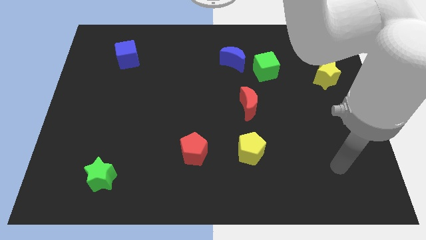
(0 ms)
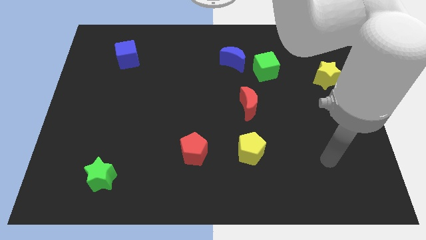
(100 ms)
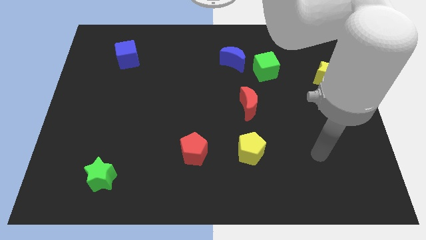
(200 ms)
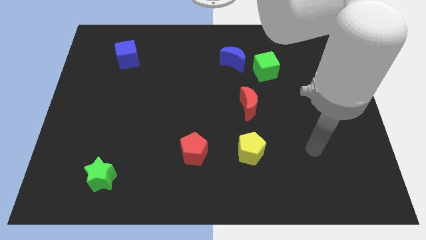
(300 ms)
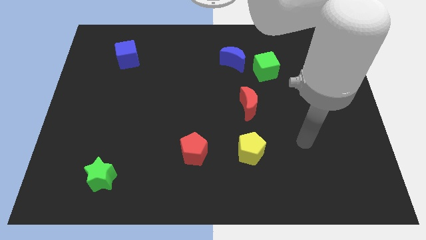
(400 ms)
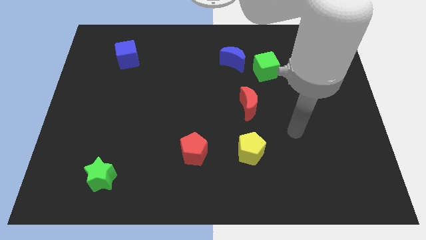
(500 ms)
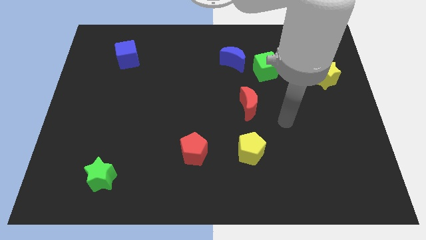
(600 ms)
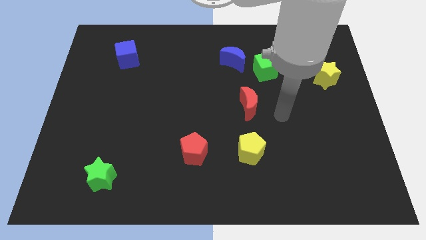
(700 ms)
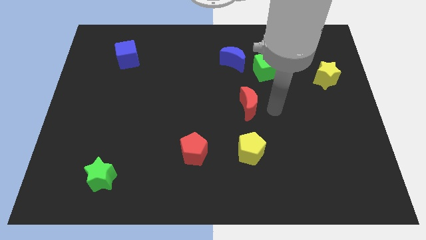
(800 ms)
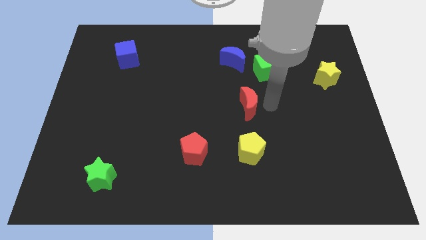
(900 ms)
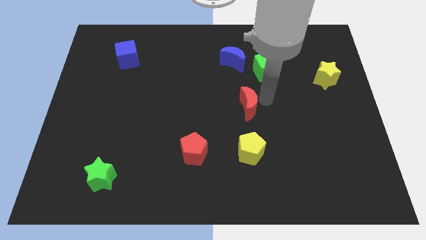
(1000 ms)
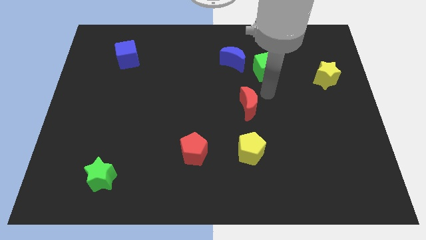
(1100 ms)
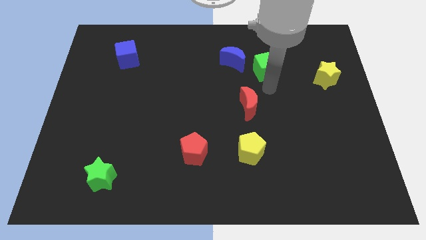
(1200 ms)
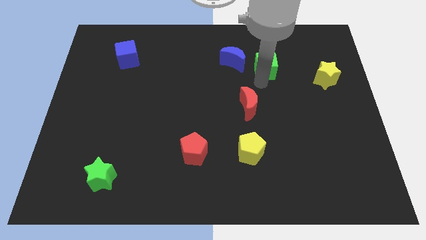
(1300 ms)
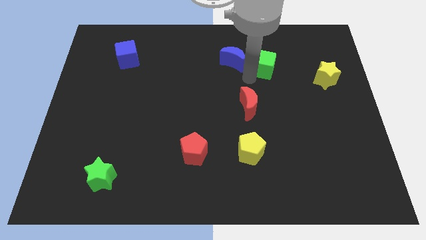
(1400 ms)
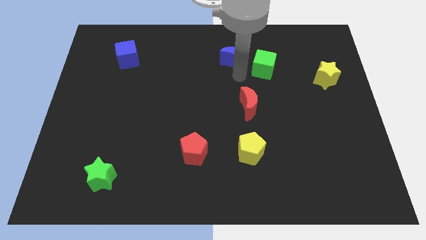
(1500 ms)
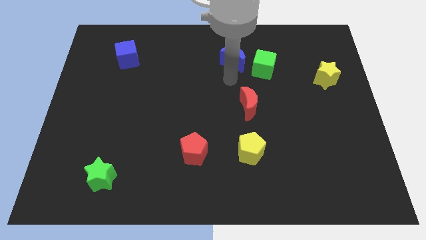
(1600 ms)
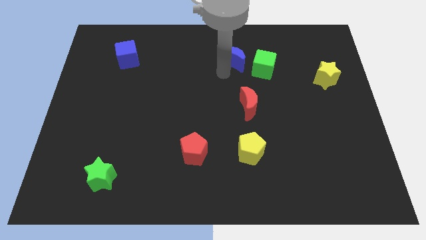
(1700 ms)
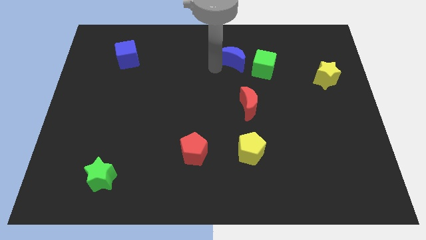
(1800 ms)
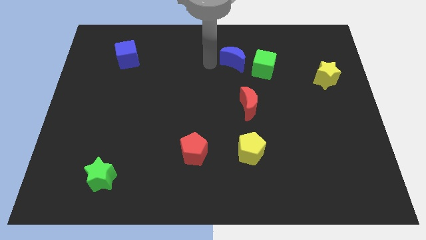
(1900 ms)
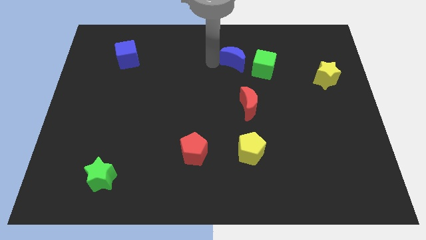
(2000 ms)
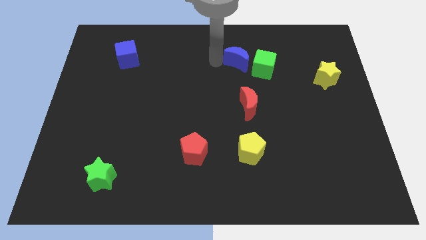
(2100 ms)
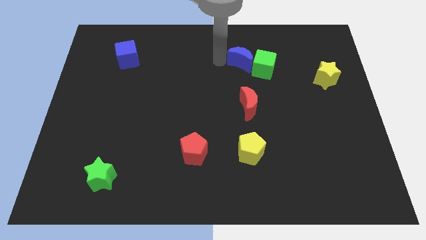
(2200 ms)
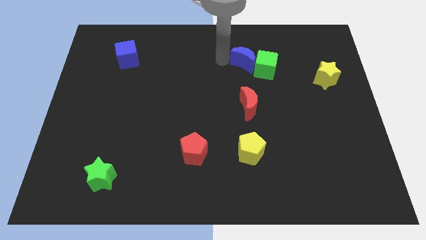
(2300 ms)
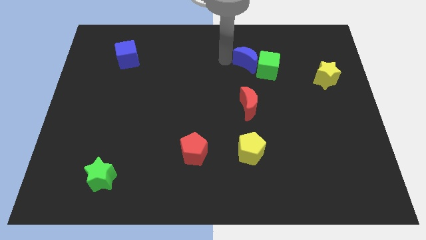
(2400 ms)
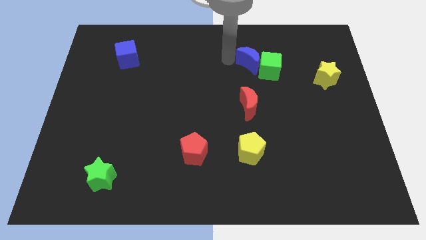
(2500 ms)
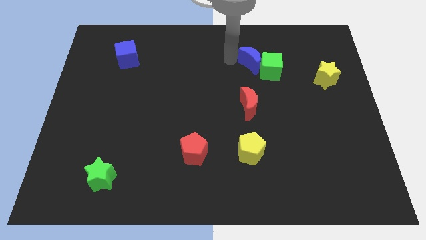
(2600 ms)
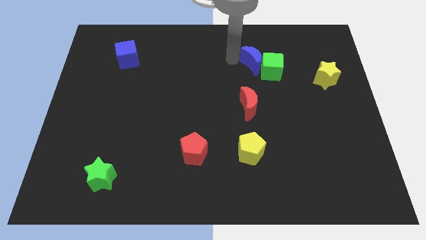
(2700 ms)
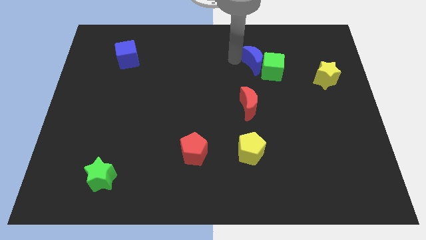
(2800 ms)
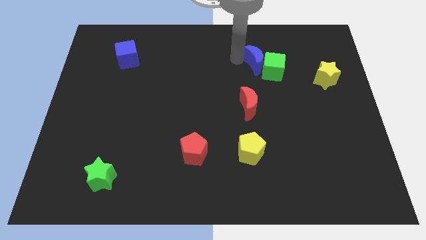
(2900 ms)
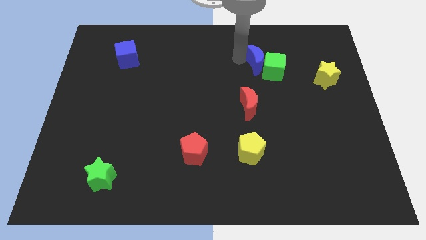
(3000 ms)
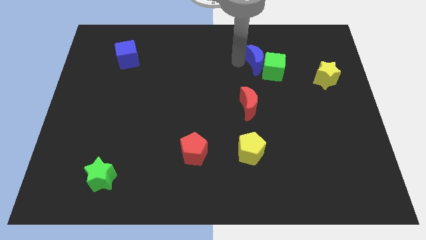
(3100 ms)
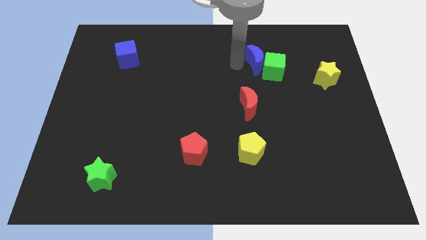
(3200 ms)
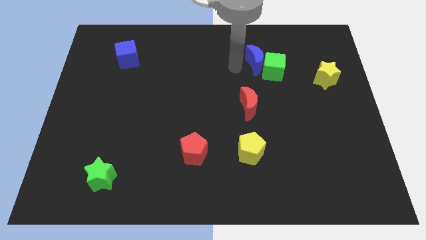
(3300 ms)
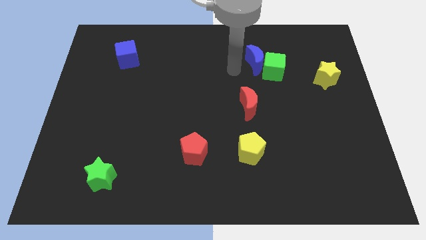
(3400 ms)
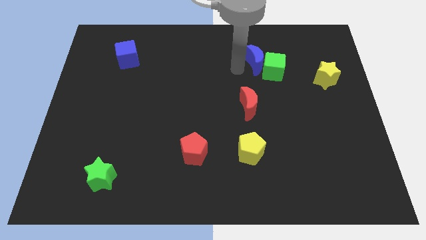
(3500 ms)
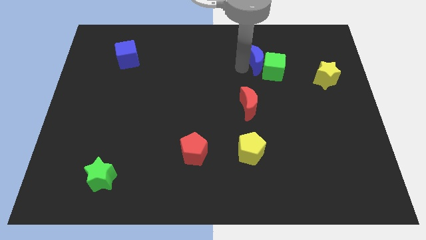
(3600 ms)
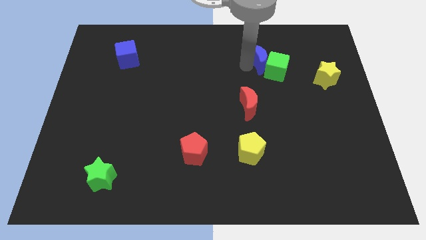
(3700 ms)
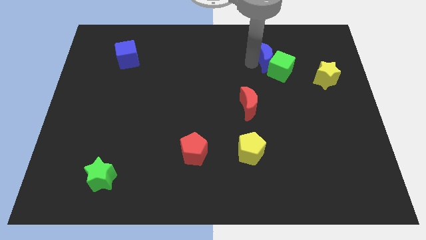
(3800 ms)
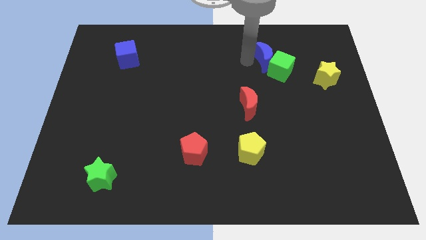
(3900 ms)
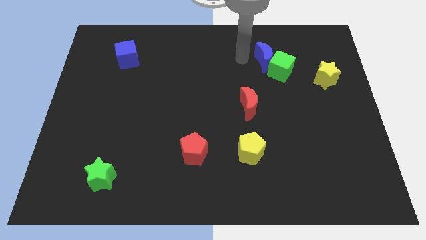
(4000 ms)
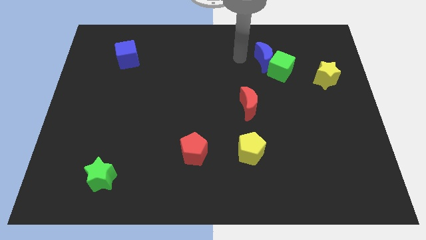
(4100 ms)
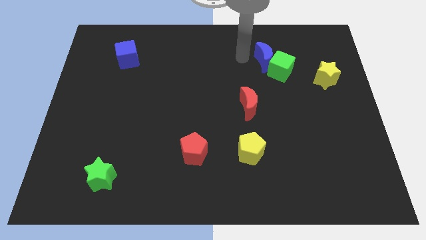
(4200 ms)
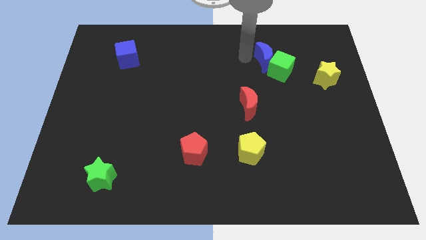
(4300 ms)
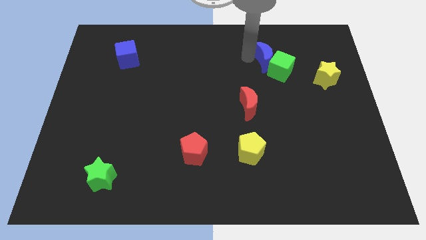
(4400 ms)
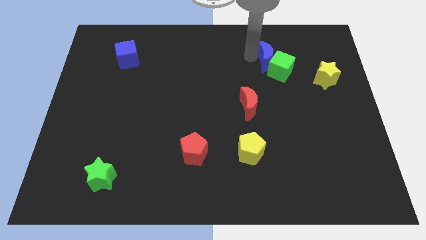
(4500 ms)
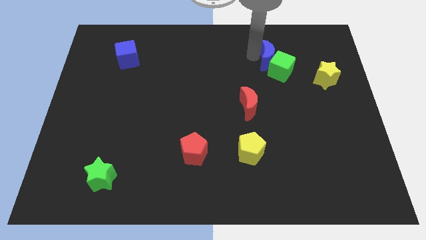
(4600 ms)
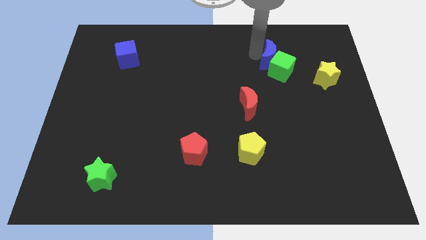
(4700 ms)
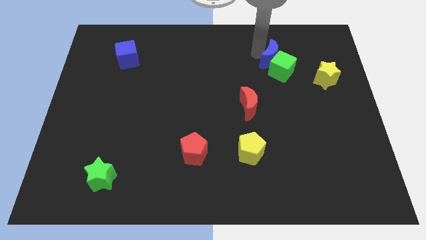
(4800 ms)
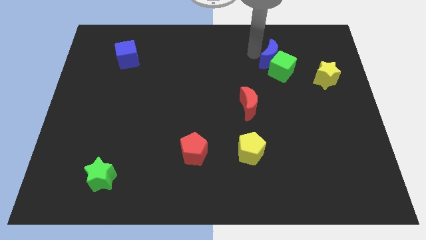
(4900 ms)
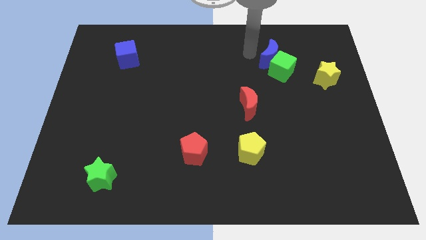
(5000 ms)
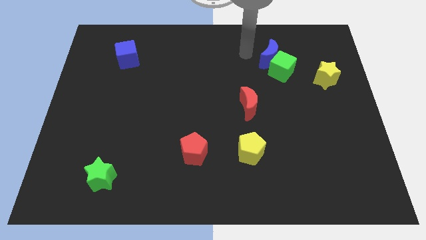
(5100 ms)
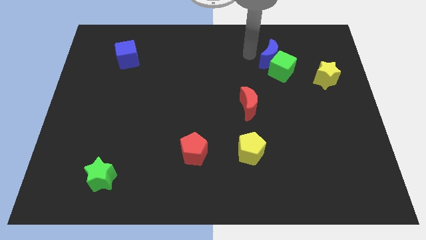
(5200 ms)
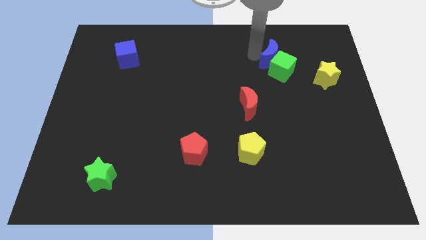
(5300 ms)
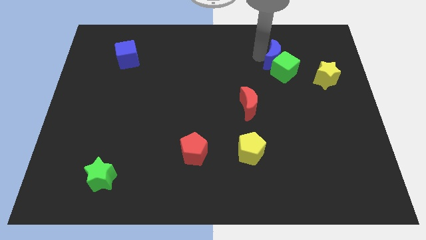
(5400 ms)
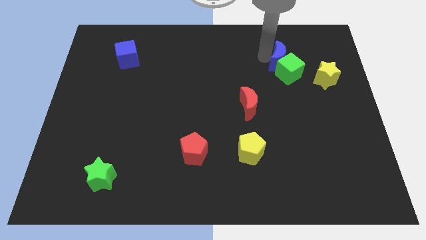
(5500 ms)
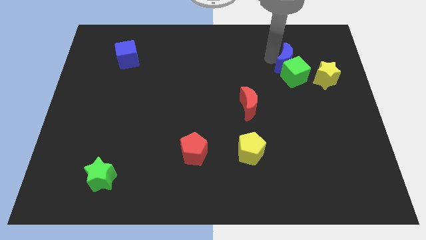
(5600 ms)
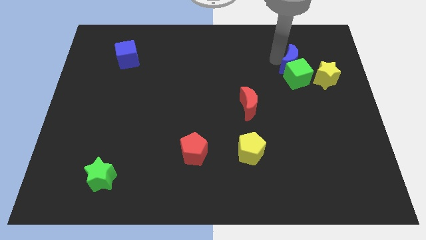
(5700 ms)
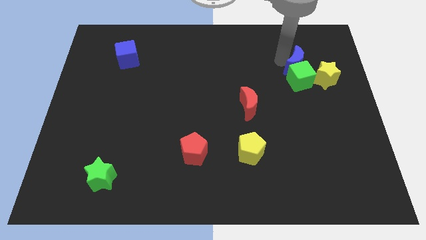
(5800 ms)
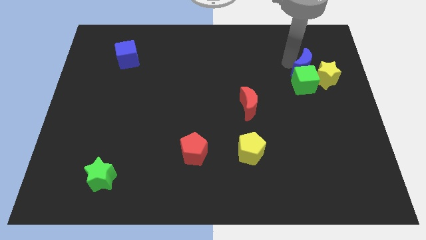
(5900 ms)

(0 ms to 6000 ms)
slide the blue moon to the yellow star

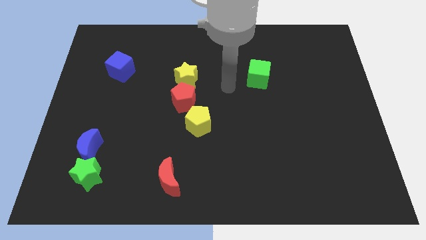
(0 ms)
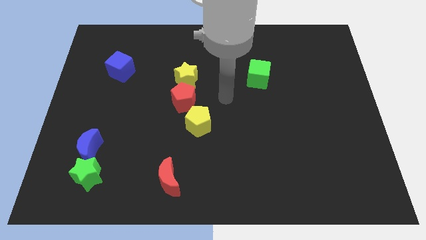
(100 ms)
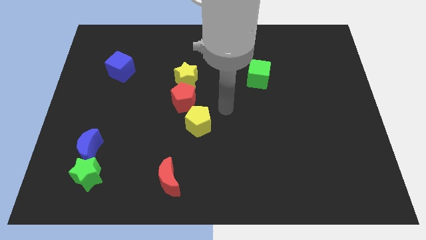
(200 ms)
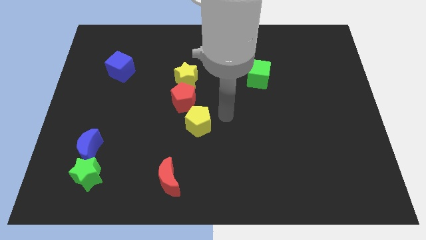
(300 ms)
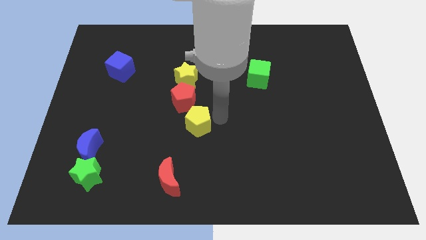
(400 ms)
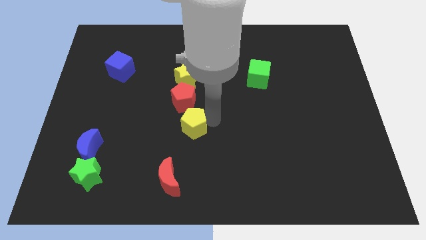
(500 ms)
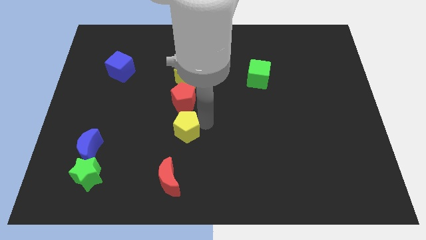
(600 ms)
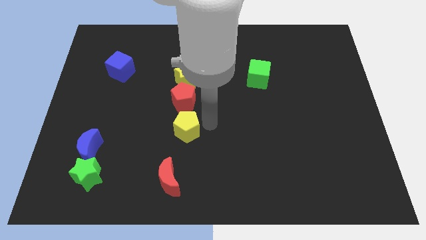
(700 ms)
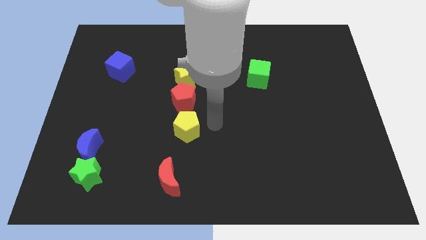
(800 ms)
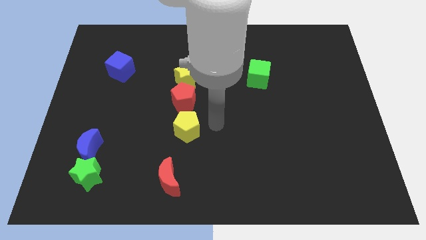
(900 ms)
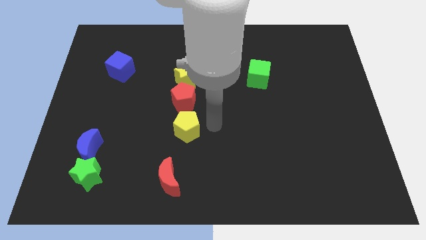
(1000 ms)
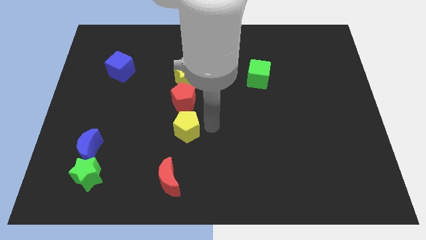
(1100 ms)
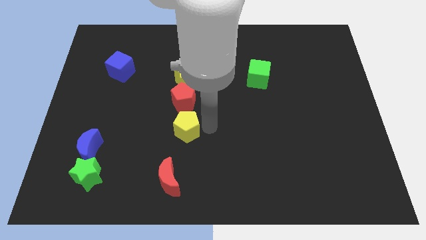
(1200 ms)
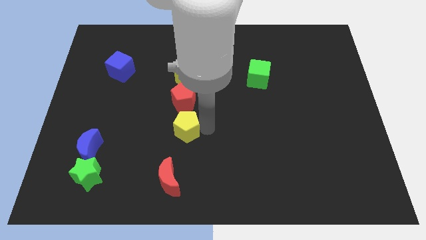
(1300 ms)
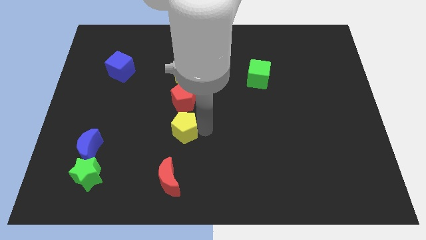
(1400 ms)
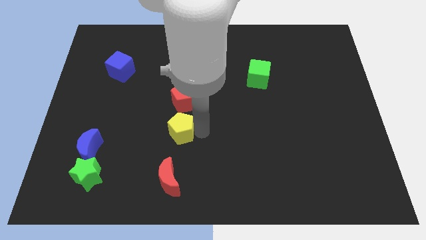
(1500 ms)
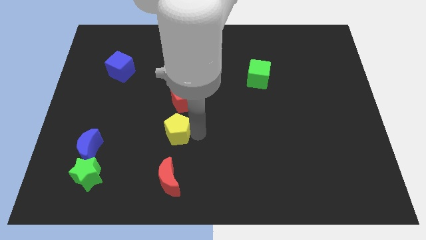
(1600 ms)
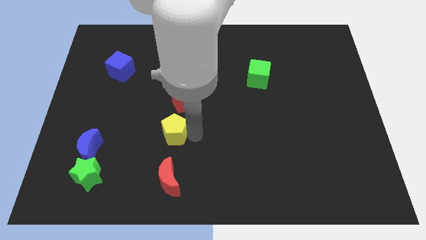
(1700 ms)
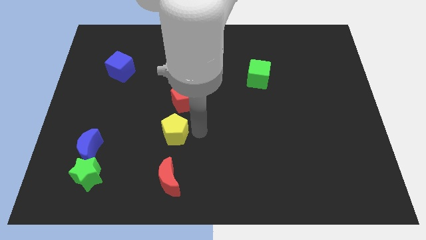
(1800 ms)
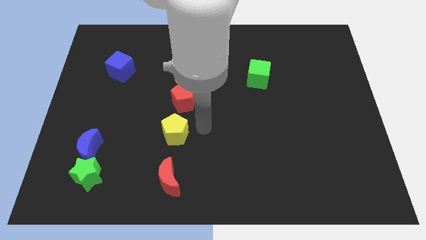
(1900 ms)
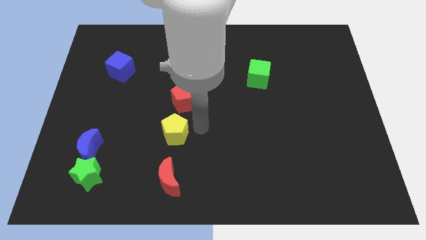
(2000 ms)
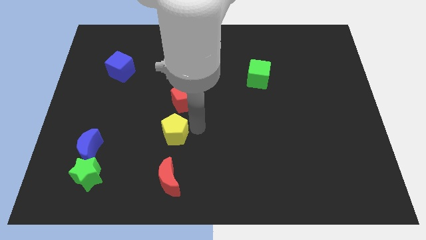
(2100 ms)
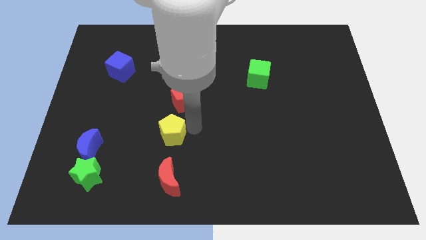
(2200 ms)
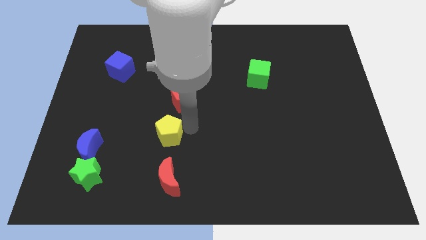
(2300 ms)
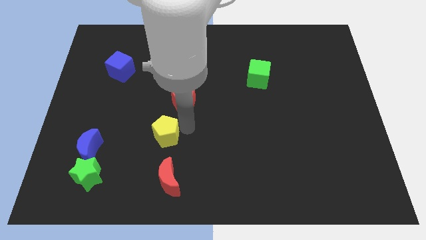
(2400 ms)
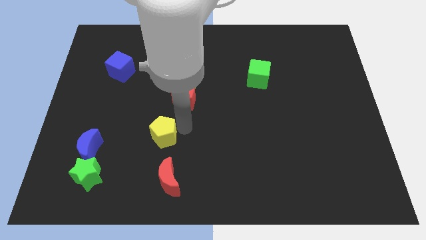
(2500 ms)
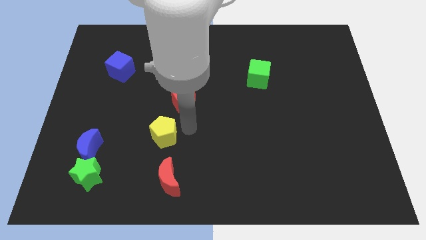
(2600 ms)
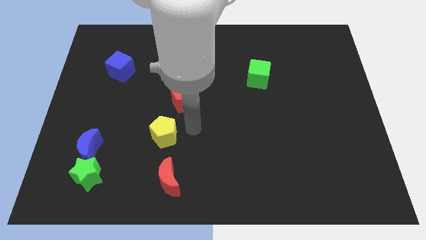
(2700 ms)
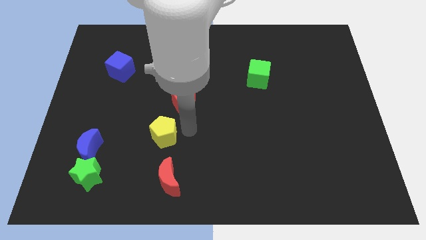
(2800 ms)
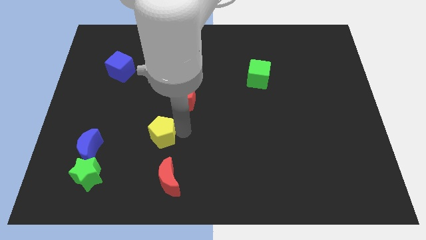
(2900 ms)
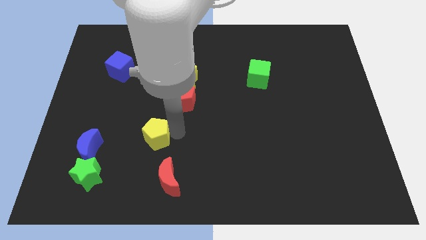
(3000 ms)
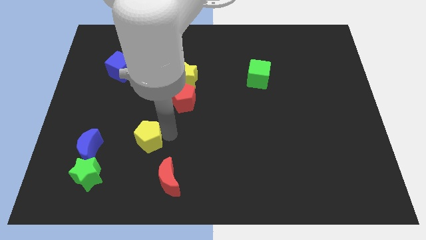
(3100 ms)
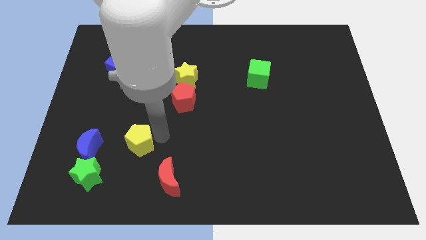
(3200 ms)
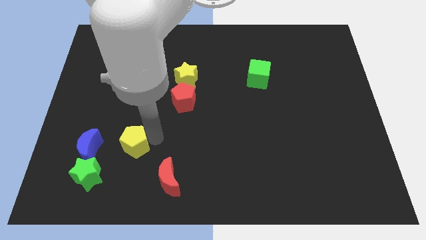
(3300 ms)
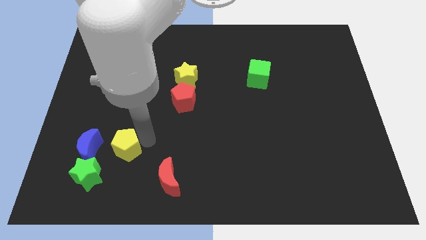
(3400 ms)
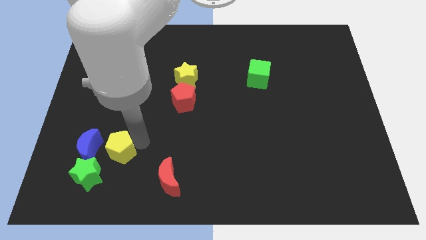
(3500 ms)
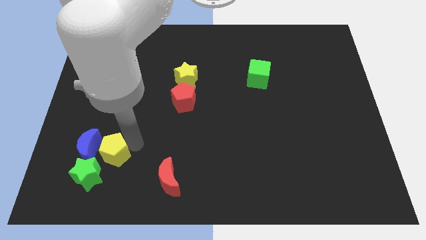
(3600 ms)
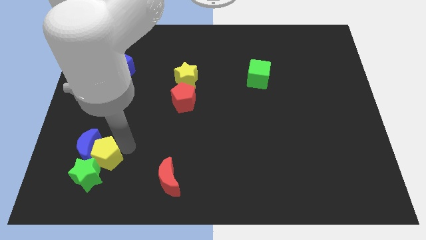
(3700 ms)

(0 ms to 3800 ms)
slide the yellow pentagon close to the green star
